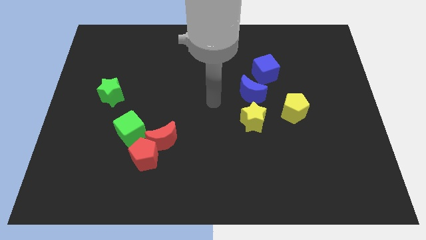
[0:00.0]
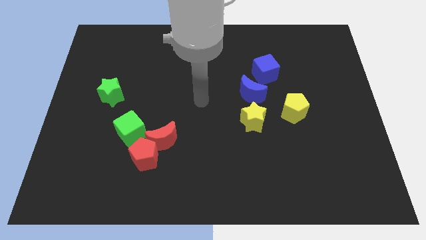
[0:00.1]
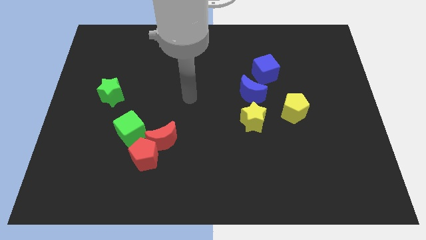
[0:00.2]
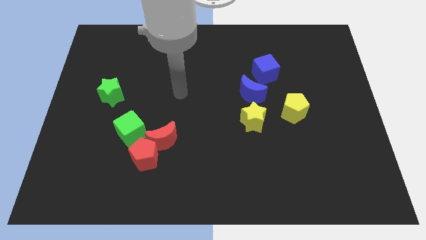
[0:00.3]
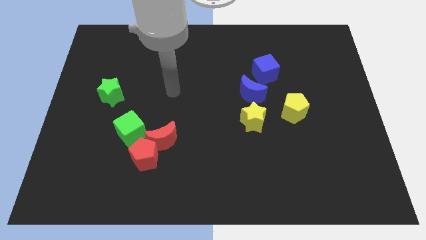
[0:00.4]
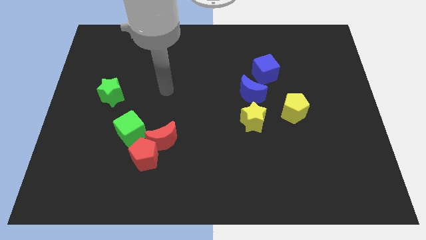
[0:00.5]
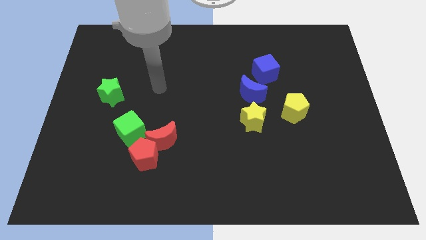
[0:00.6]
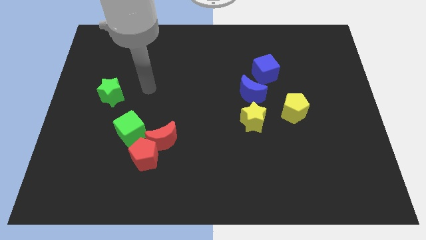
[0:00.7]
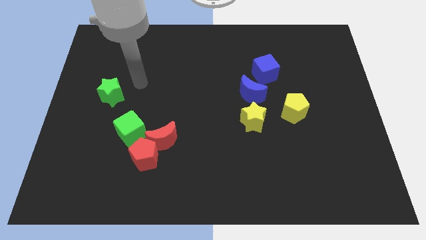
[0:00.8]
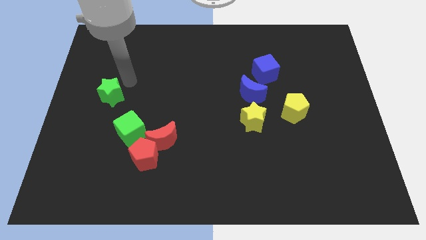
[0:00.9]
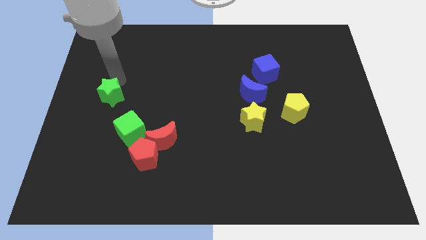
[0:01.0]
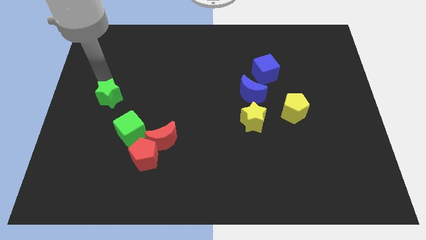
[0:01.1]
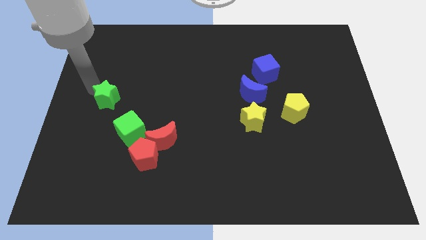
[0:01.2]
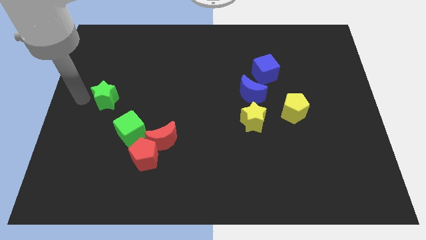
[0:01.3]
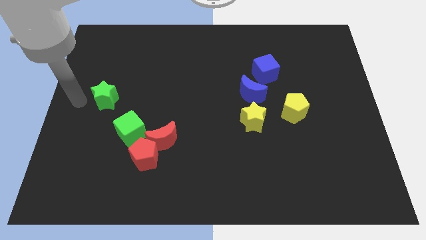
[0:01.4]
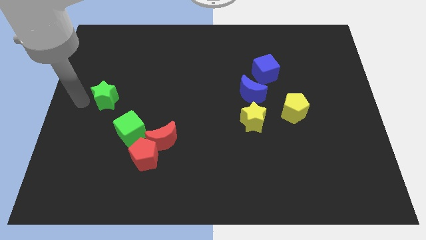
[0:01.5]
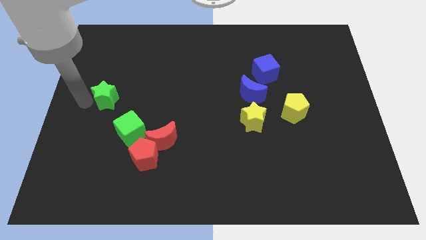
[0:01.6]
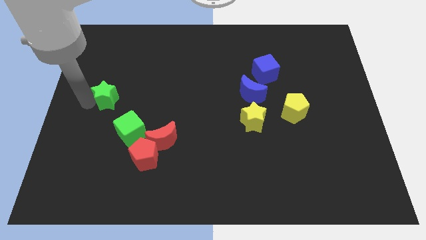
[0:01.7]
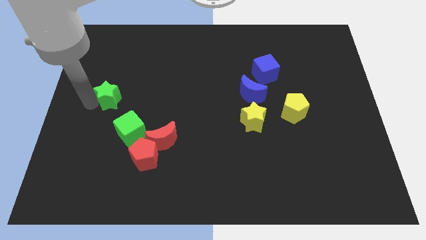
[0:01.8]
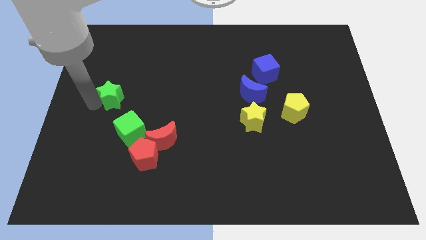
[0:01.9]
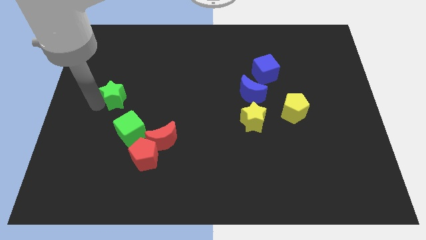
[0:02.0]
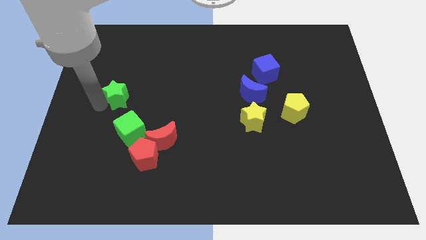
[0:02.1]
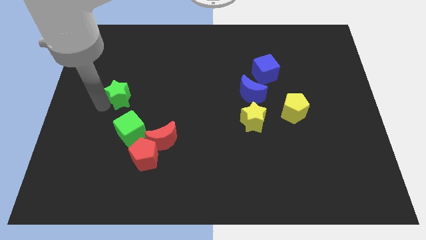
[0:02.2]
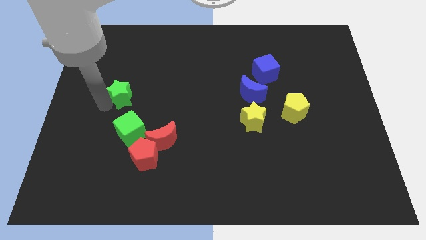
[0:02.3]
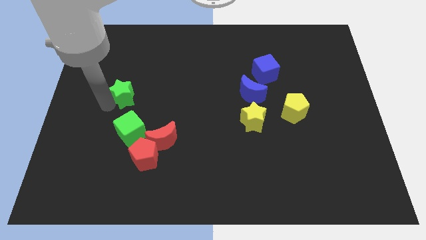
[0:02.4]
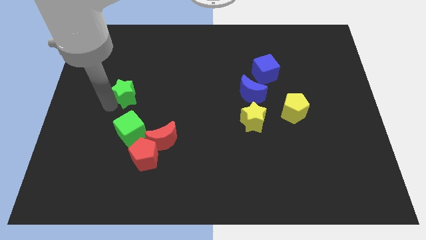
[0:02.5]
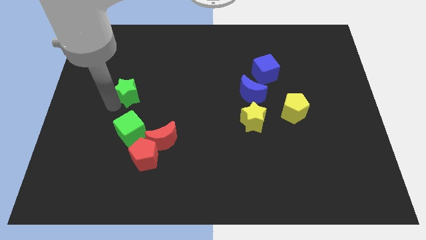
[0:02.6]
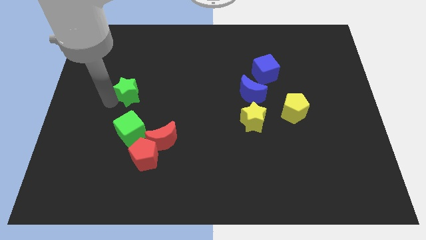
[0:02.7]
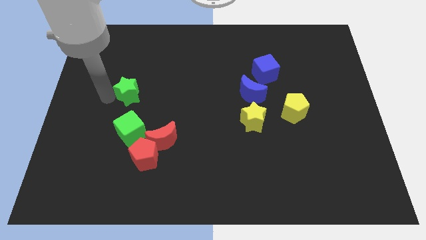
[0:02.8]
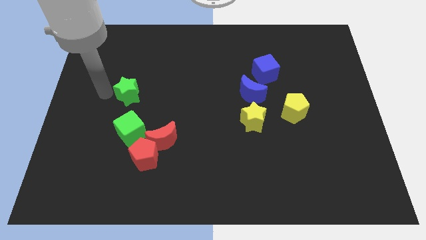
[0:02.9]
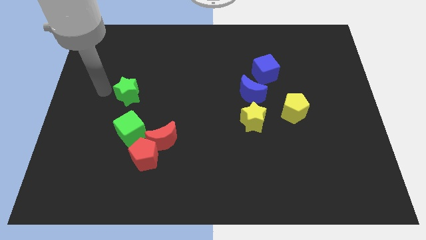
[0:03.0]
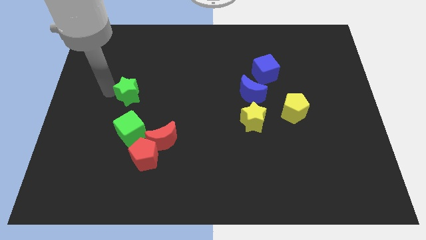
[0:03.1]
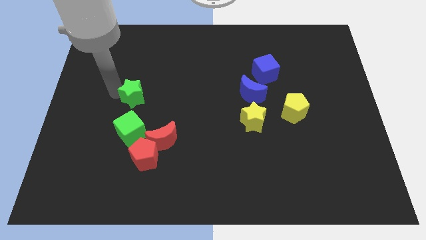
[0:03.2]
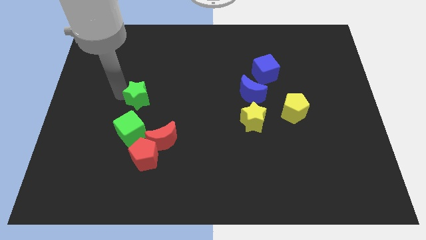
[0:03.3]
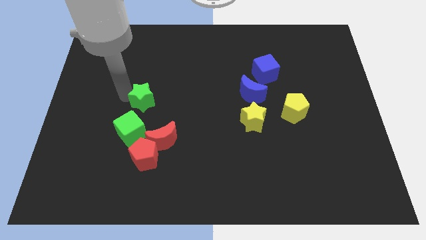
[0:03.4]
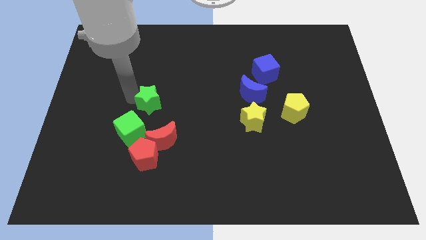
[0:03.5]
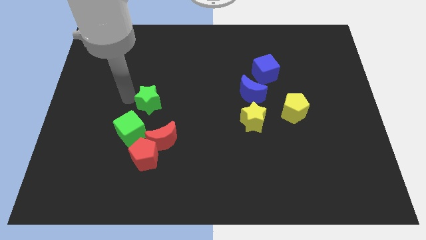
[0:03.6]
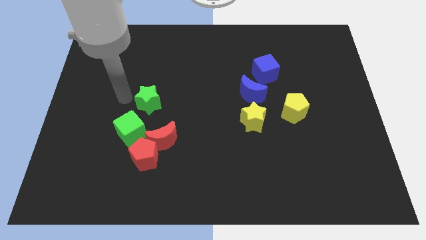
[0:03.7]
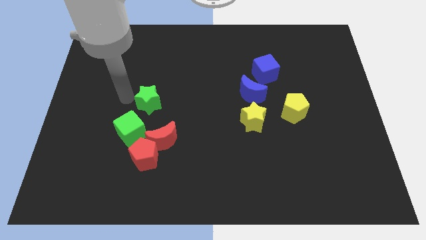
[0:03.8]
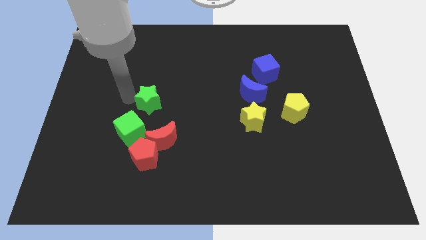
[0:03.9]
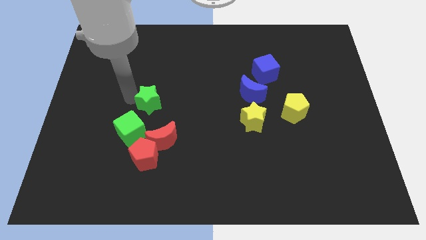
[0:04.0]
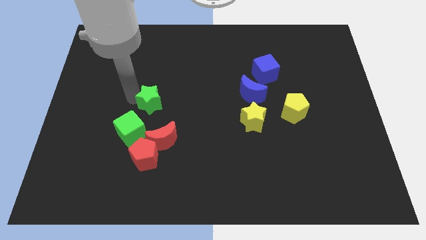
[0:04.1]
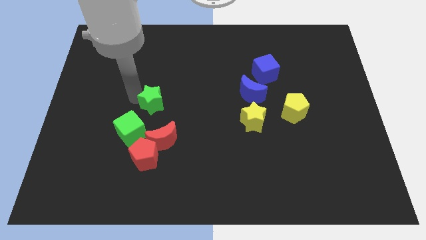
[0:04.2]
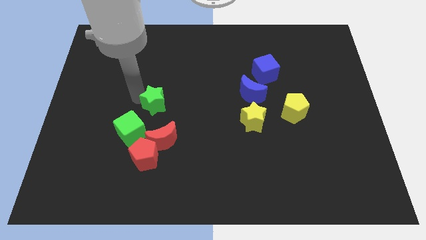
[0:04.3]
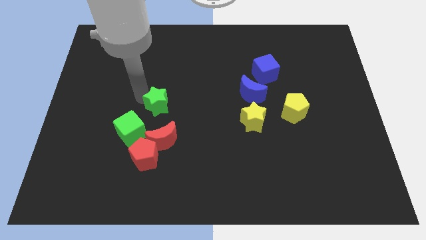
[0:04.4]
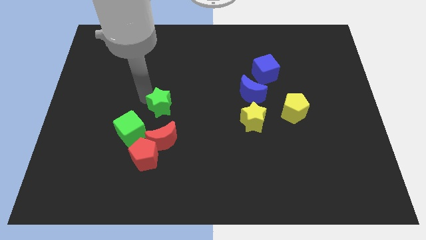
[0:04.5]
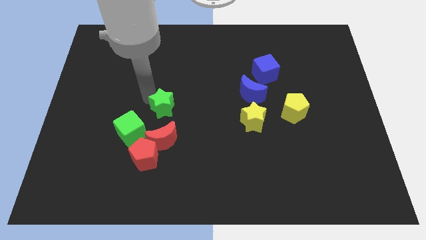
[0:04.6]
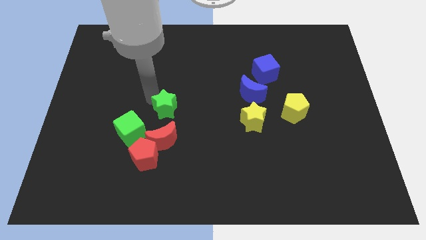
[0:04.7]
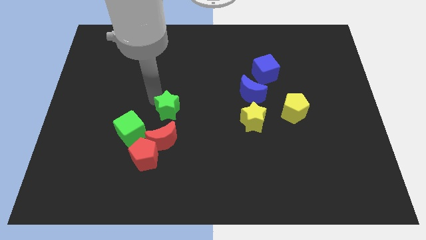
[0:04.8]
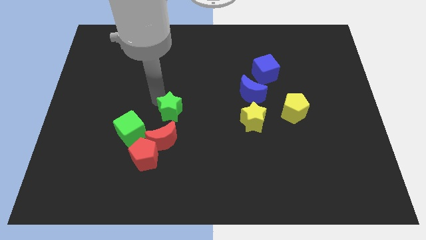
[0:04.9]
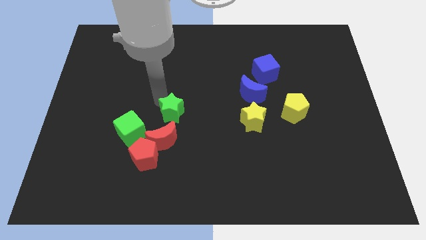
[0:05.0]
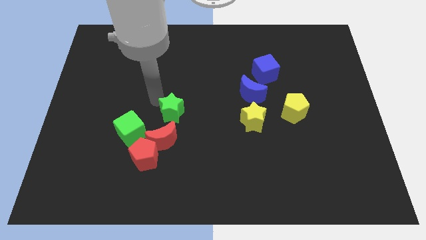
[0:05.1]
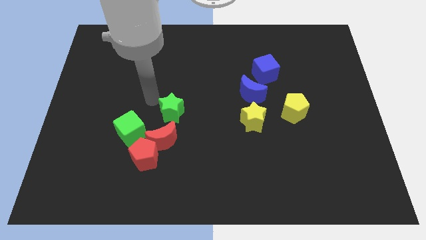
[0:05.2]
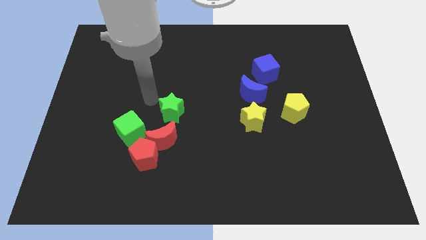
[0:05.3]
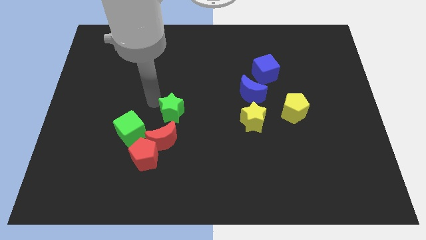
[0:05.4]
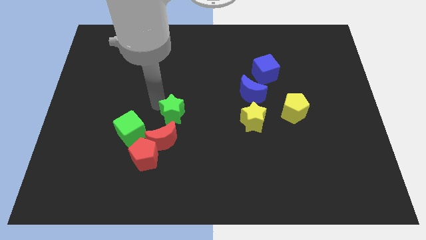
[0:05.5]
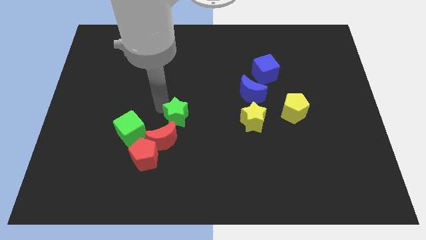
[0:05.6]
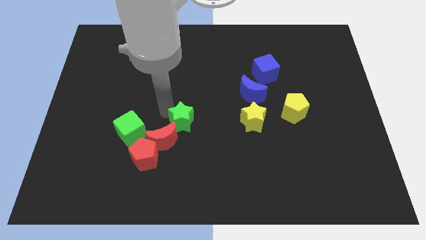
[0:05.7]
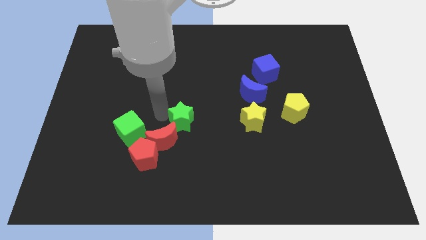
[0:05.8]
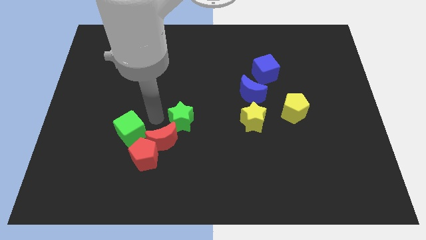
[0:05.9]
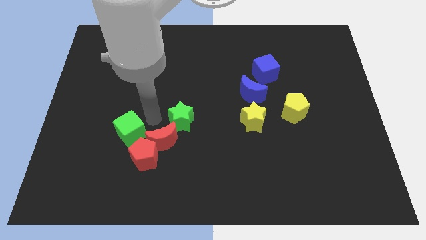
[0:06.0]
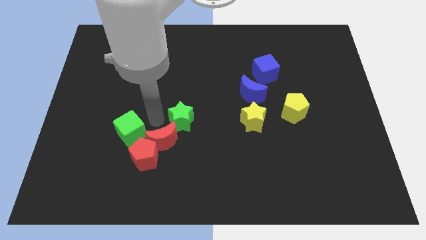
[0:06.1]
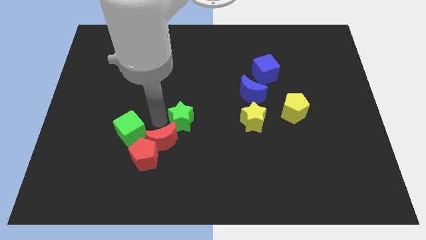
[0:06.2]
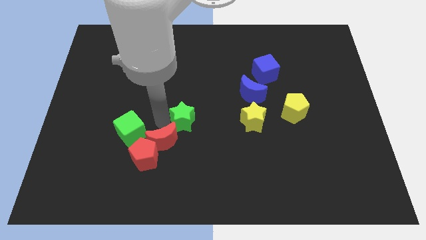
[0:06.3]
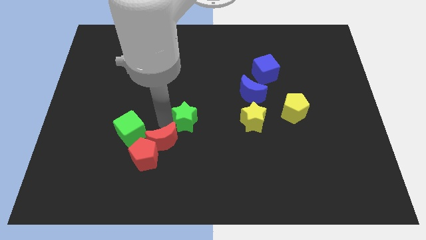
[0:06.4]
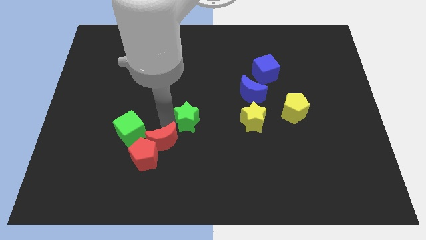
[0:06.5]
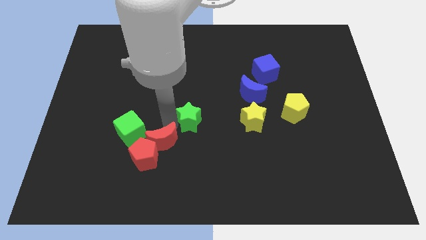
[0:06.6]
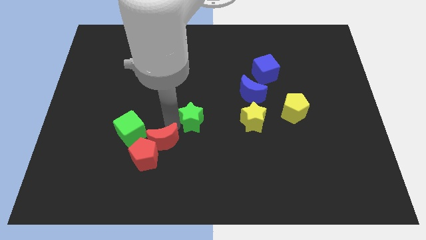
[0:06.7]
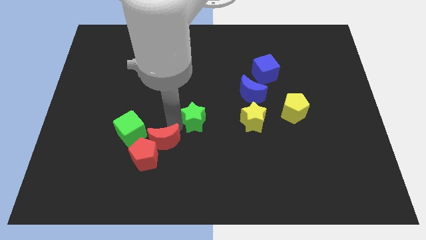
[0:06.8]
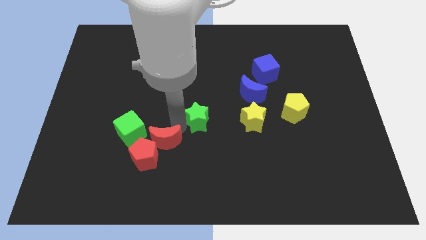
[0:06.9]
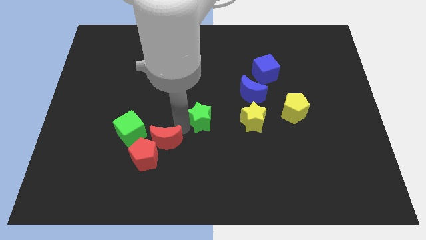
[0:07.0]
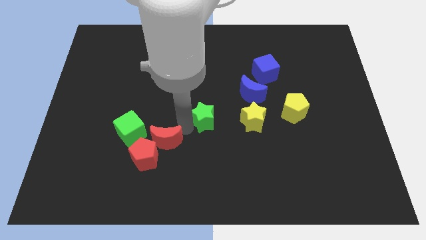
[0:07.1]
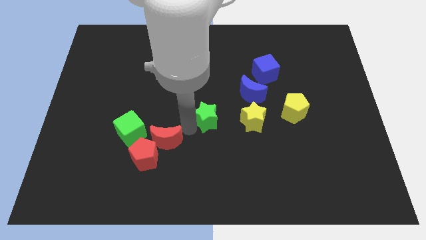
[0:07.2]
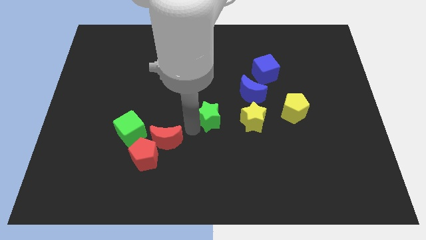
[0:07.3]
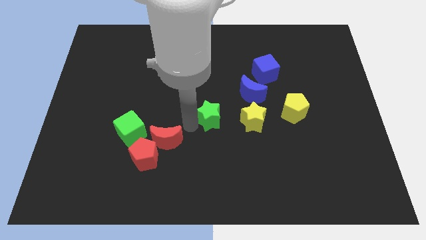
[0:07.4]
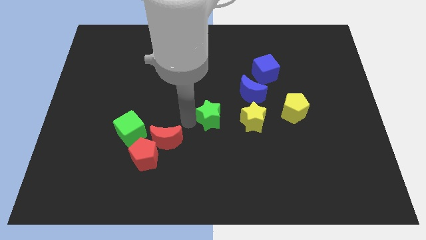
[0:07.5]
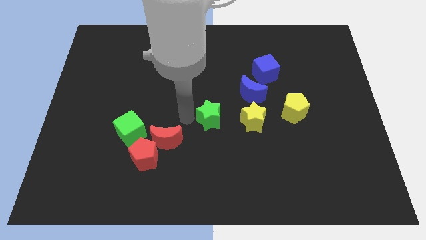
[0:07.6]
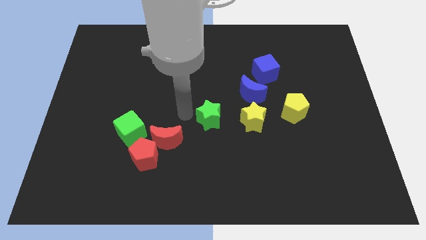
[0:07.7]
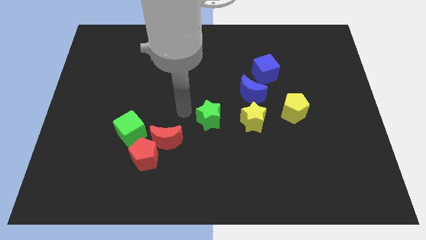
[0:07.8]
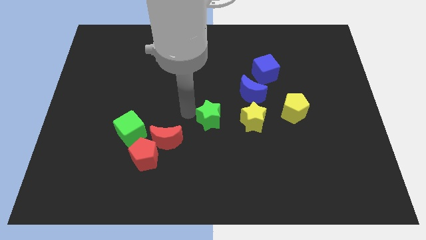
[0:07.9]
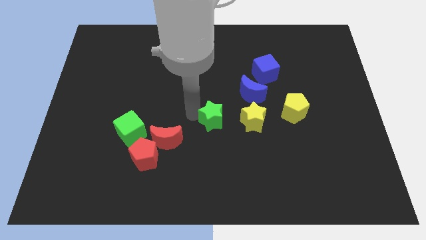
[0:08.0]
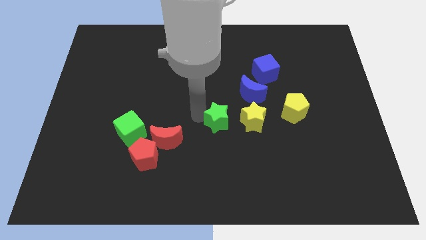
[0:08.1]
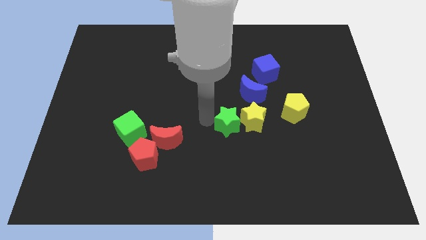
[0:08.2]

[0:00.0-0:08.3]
put the green star towards the yellow star
